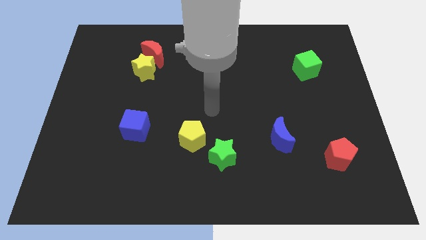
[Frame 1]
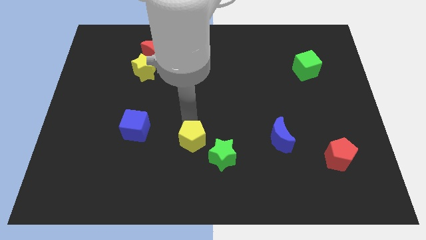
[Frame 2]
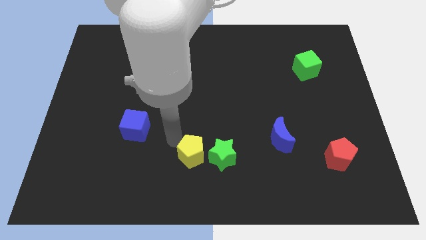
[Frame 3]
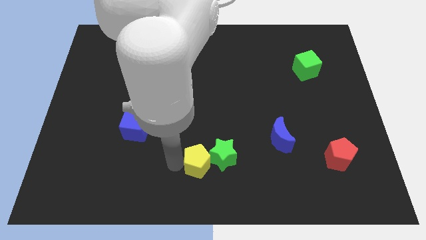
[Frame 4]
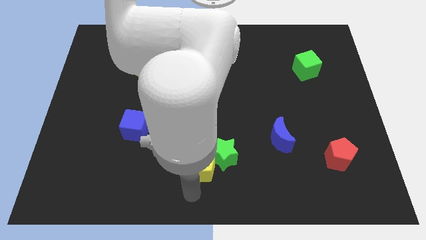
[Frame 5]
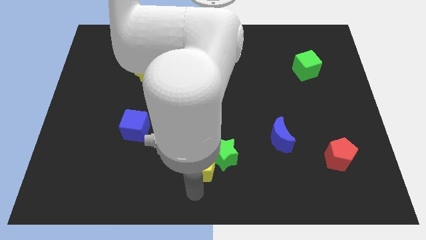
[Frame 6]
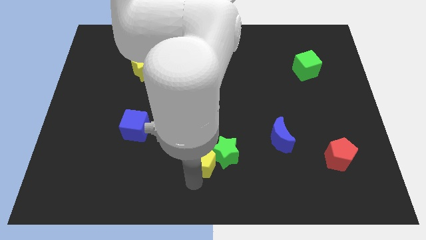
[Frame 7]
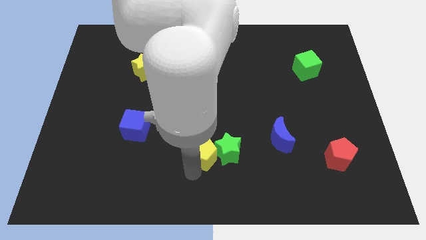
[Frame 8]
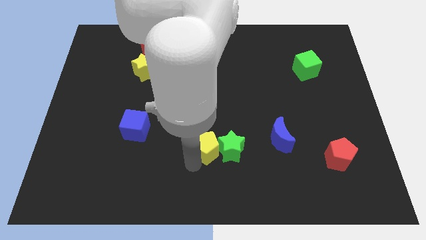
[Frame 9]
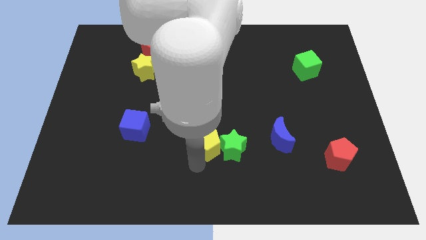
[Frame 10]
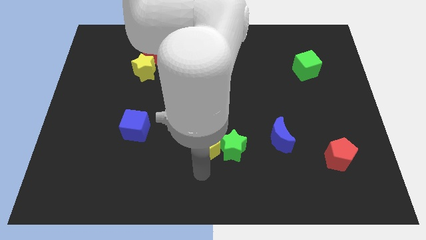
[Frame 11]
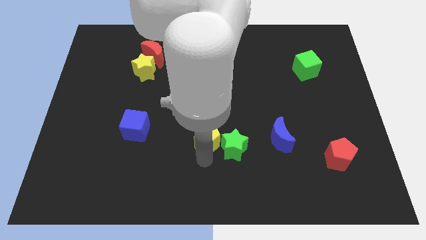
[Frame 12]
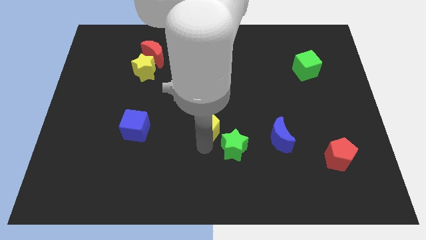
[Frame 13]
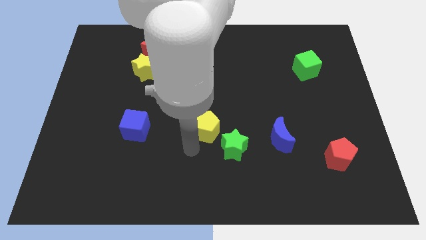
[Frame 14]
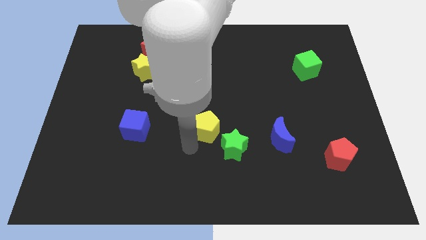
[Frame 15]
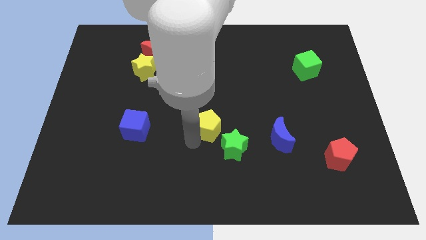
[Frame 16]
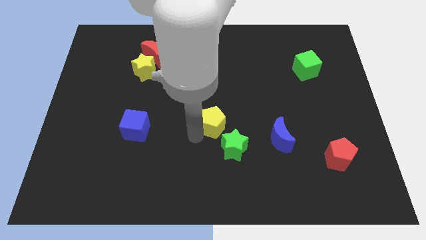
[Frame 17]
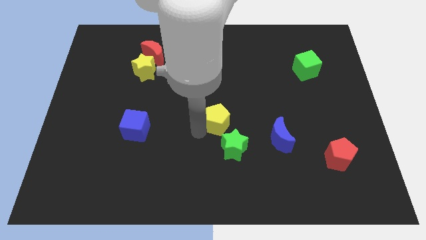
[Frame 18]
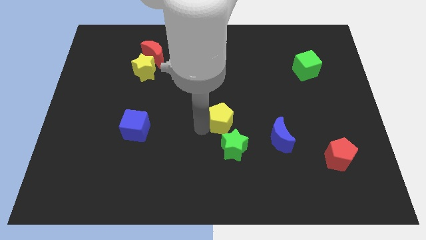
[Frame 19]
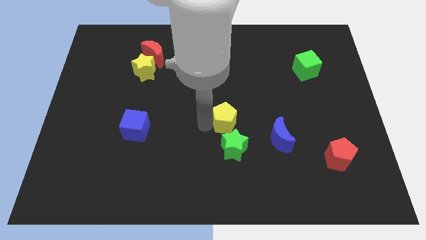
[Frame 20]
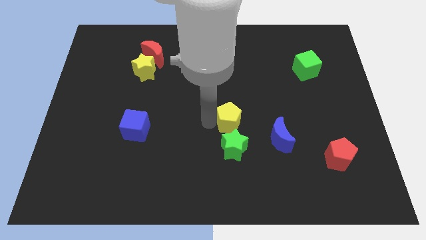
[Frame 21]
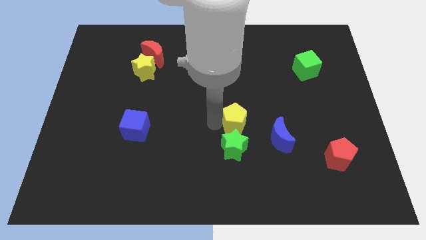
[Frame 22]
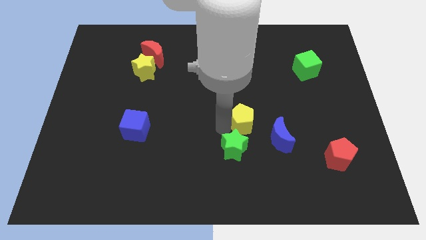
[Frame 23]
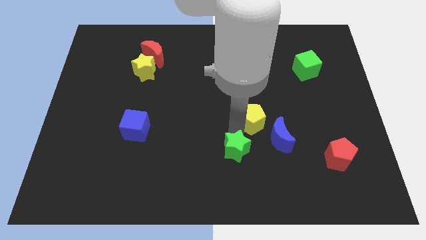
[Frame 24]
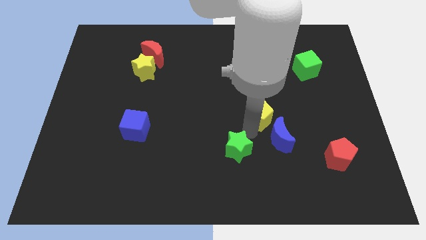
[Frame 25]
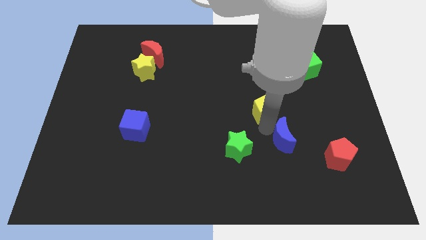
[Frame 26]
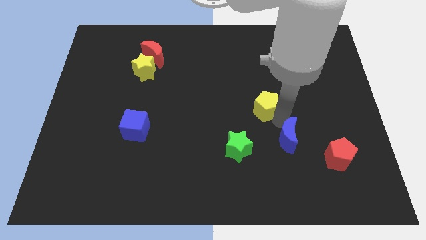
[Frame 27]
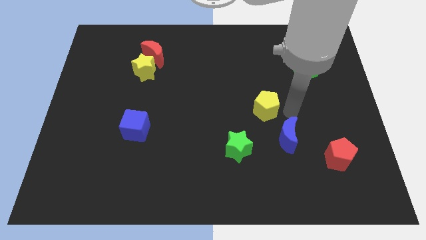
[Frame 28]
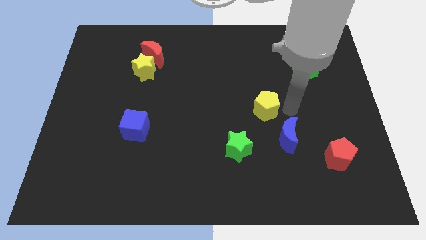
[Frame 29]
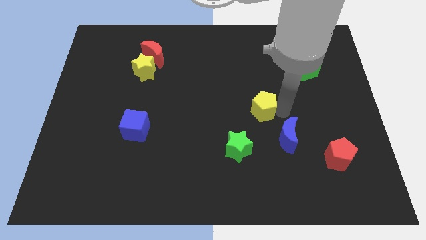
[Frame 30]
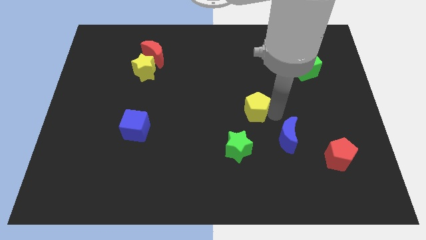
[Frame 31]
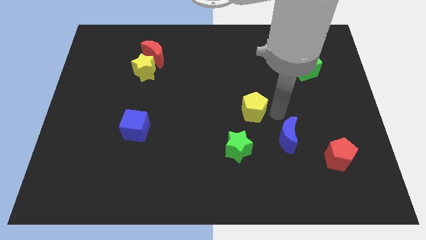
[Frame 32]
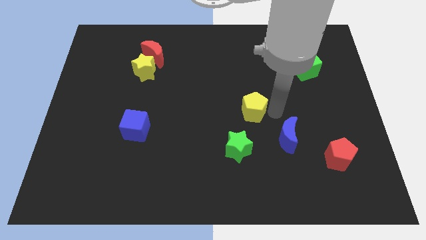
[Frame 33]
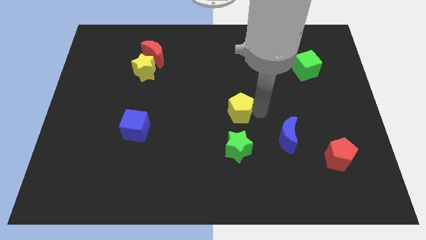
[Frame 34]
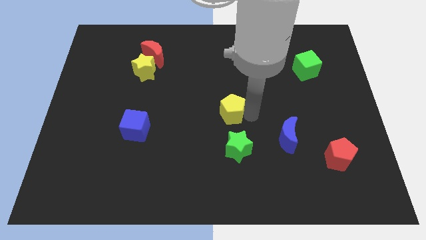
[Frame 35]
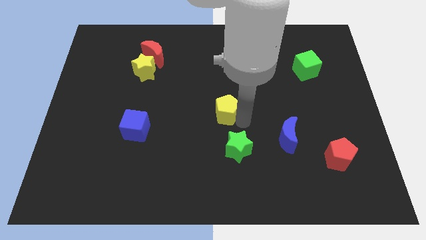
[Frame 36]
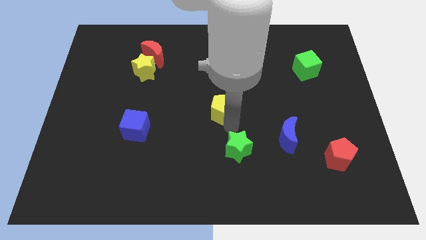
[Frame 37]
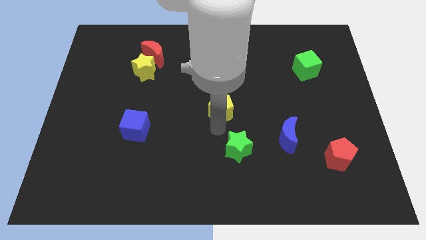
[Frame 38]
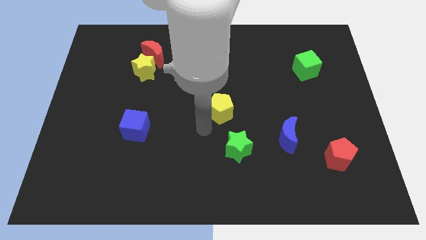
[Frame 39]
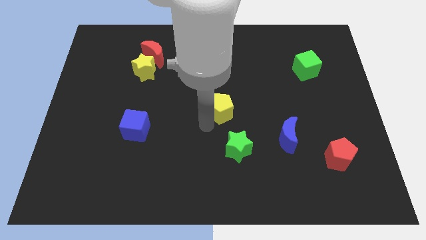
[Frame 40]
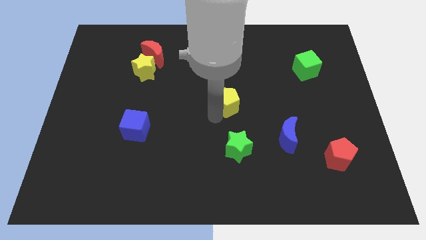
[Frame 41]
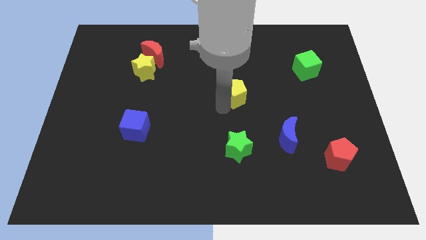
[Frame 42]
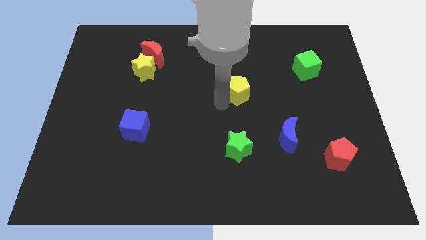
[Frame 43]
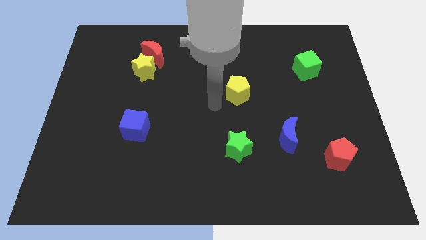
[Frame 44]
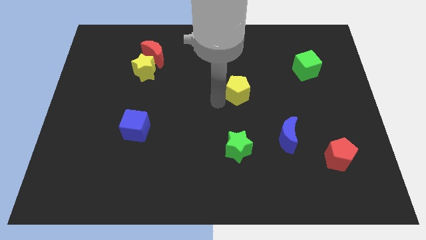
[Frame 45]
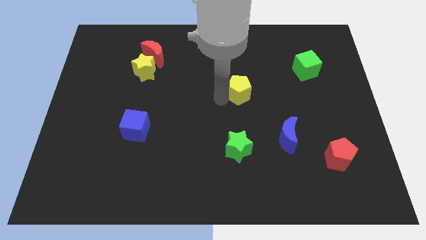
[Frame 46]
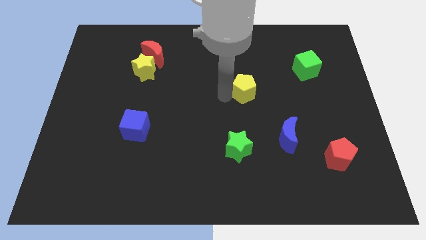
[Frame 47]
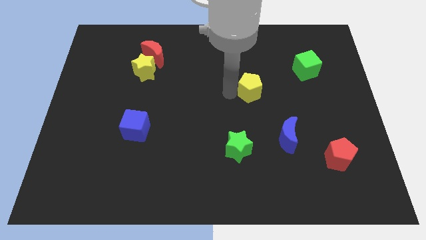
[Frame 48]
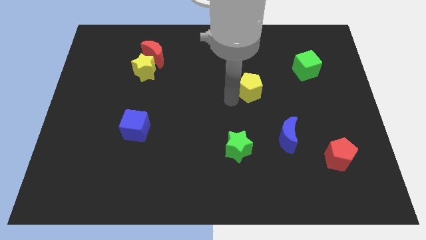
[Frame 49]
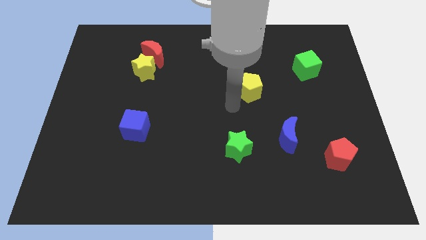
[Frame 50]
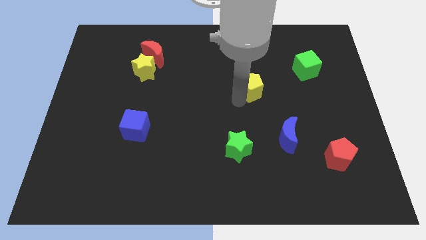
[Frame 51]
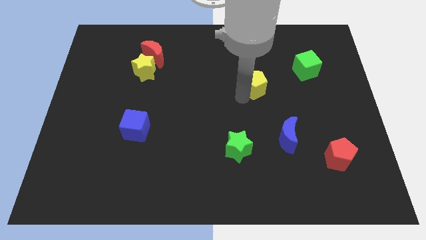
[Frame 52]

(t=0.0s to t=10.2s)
move the yellow pentagon up and to the right diagonally

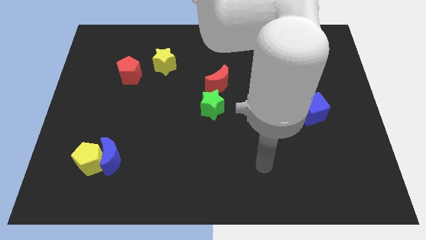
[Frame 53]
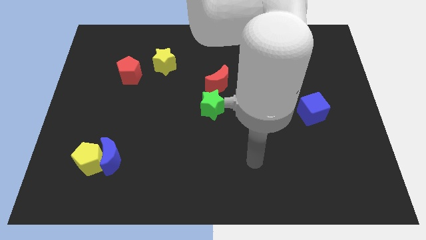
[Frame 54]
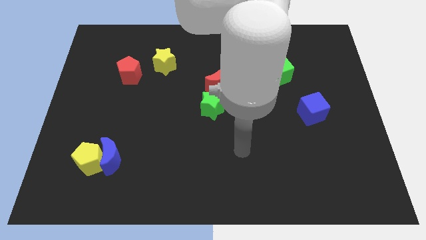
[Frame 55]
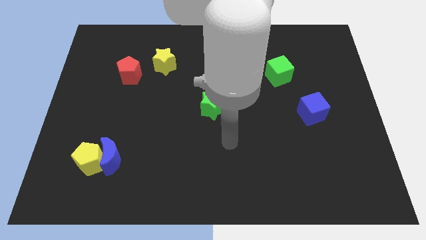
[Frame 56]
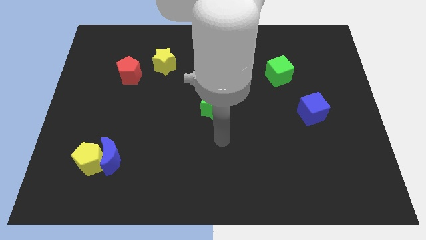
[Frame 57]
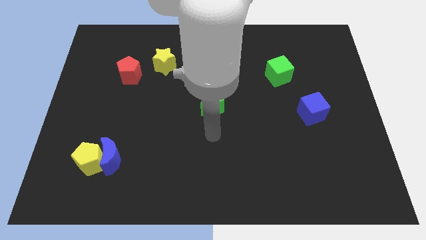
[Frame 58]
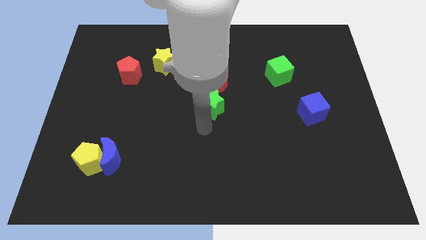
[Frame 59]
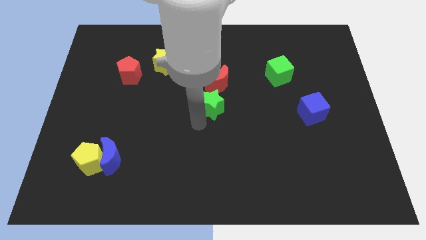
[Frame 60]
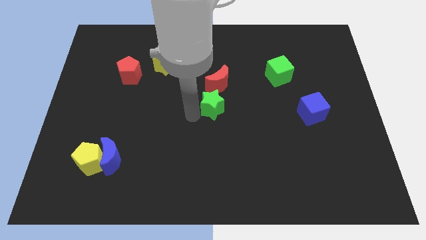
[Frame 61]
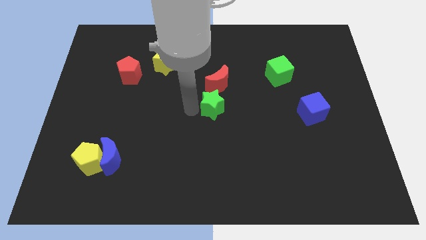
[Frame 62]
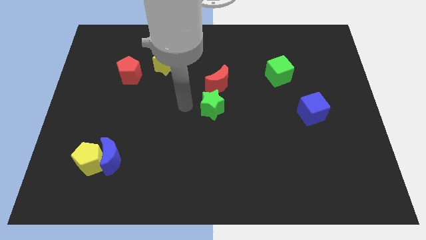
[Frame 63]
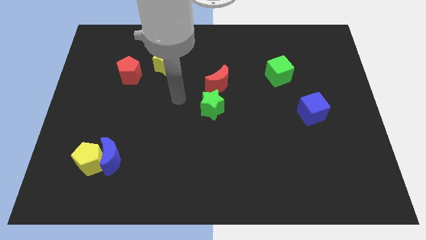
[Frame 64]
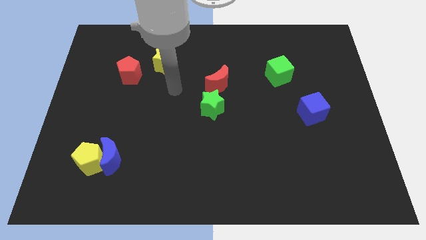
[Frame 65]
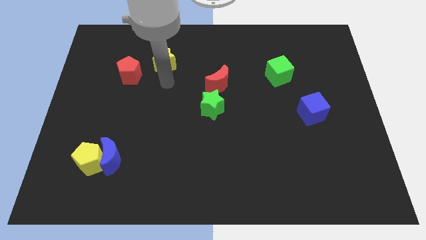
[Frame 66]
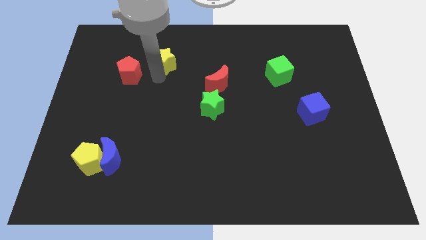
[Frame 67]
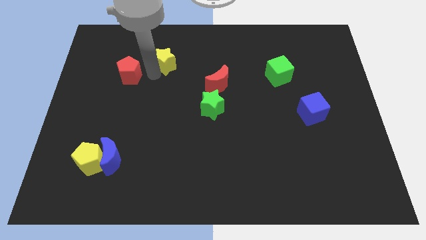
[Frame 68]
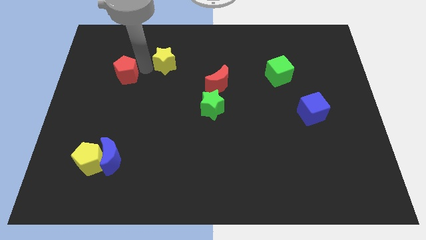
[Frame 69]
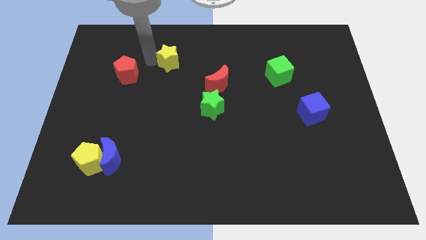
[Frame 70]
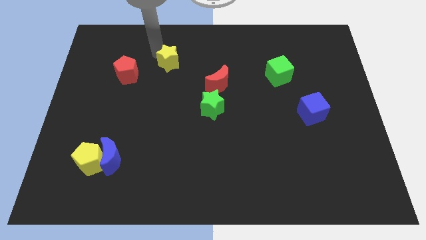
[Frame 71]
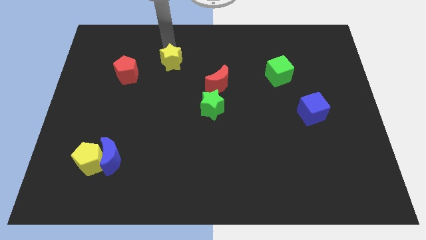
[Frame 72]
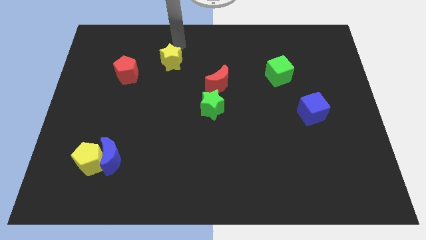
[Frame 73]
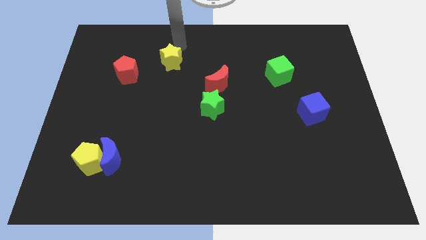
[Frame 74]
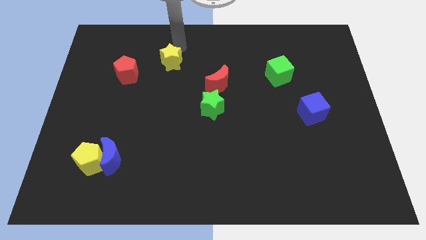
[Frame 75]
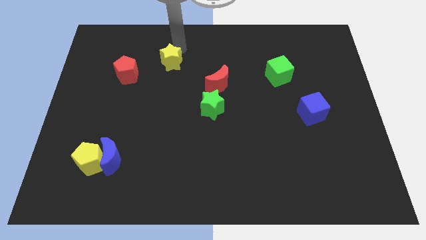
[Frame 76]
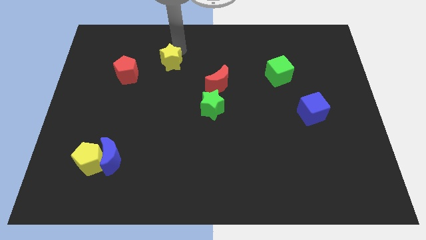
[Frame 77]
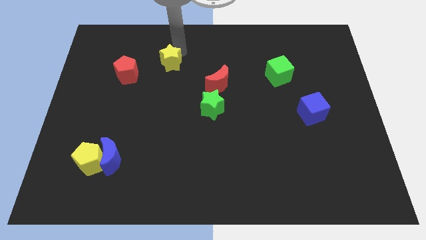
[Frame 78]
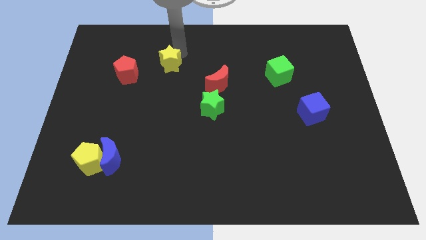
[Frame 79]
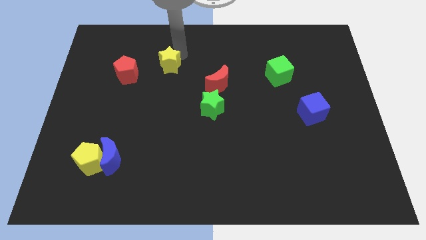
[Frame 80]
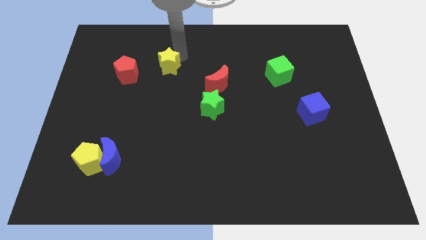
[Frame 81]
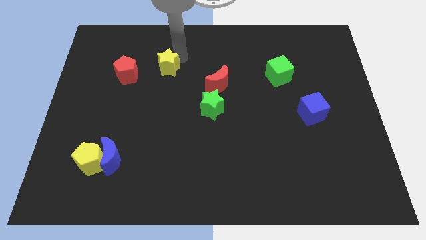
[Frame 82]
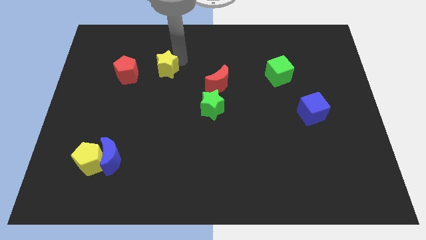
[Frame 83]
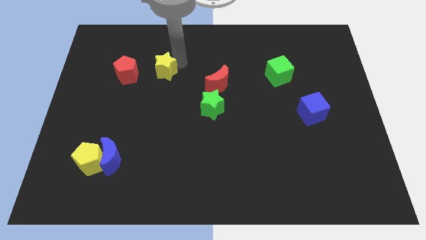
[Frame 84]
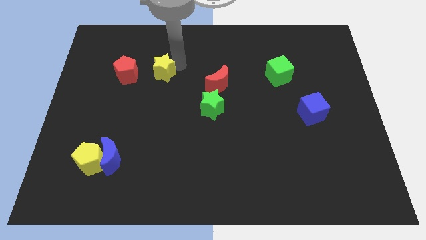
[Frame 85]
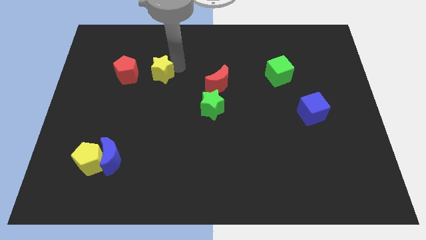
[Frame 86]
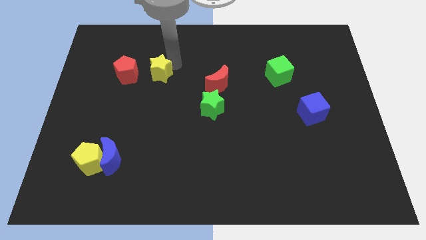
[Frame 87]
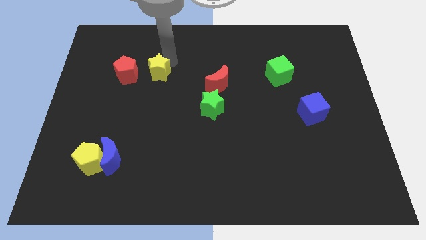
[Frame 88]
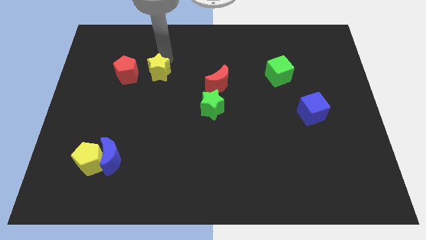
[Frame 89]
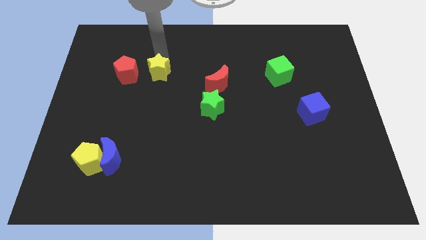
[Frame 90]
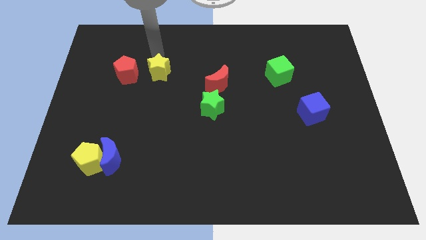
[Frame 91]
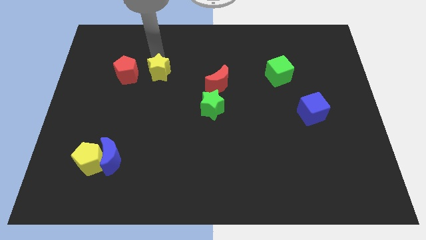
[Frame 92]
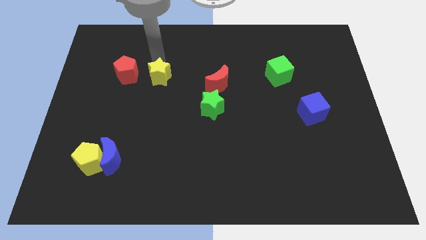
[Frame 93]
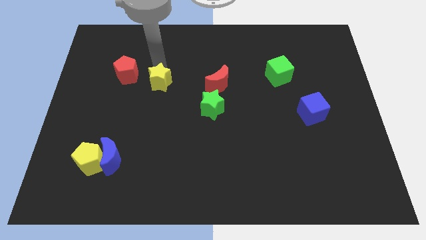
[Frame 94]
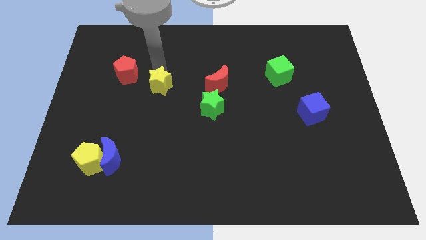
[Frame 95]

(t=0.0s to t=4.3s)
slightly slide the yellow star downwards
